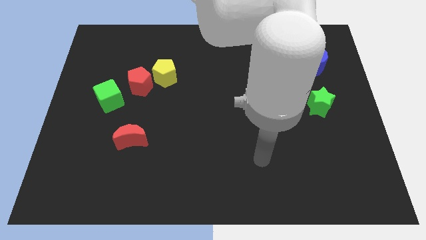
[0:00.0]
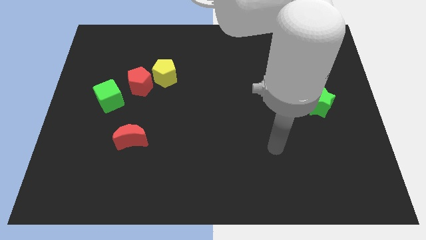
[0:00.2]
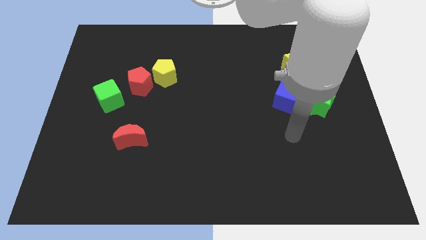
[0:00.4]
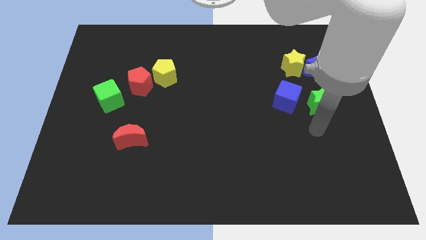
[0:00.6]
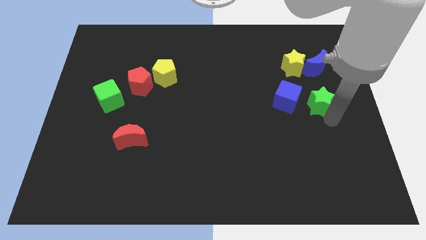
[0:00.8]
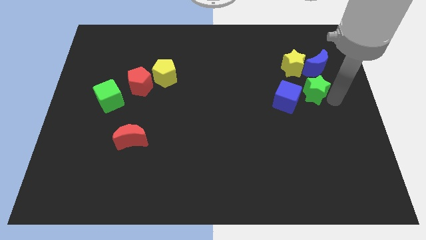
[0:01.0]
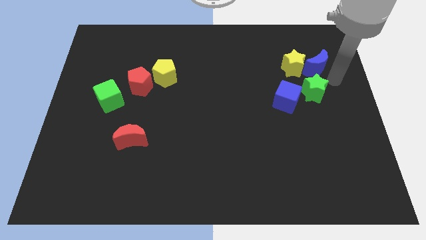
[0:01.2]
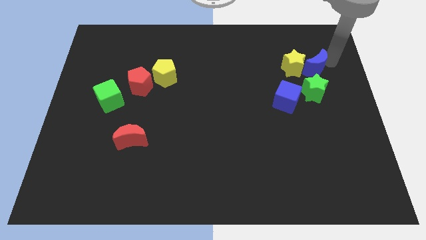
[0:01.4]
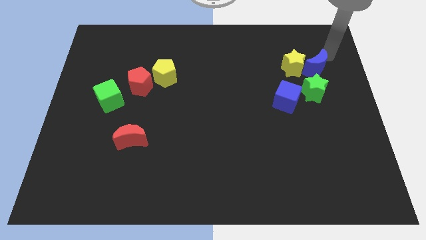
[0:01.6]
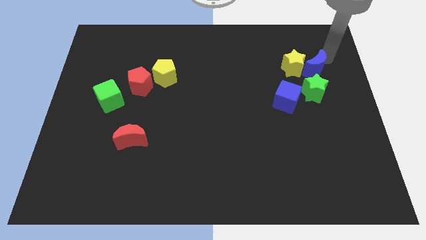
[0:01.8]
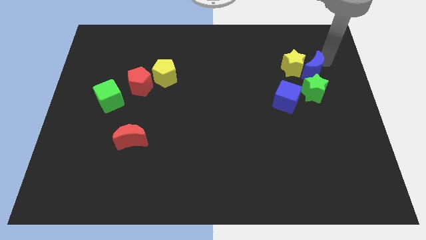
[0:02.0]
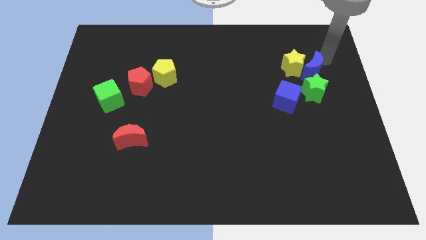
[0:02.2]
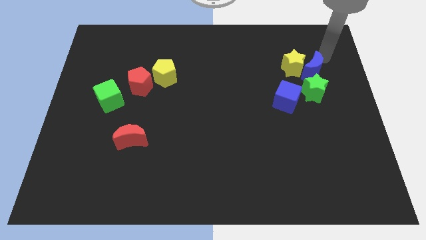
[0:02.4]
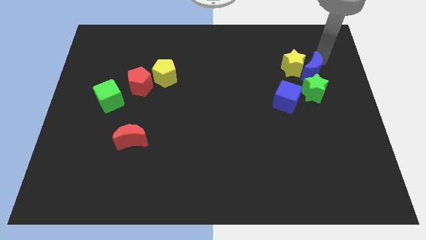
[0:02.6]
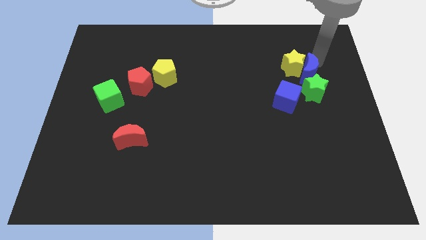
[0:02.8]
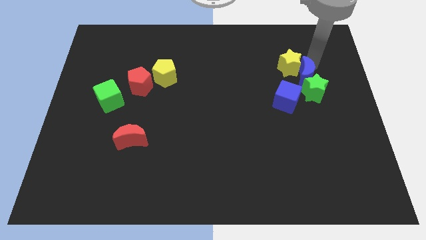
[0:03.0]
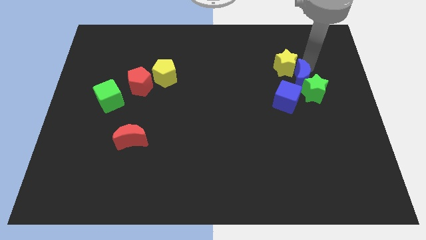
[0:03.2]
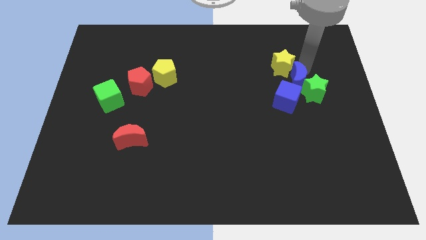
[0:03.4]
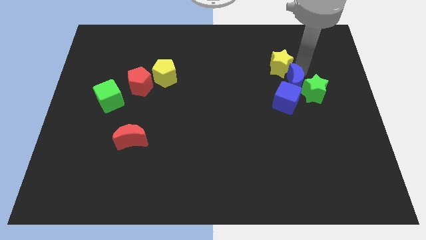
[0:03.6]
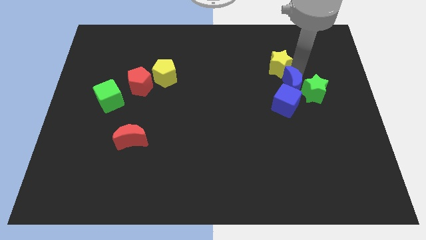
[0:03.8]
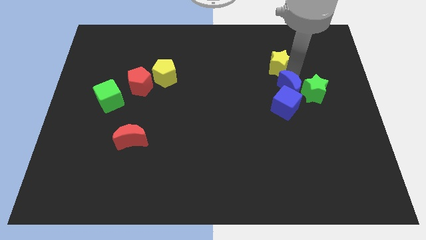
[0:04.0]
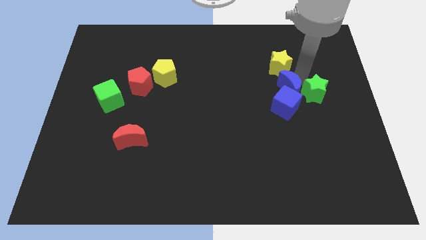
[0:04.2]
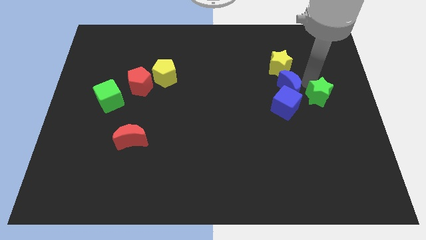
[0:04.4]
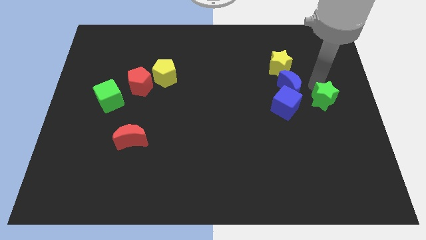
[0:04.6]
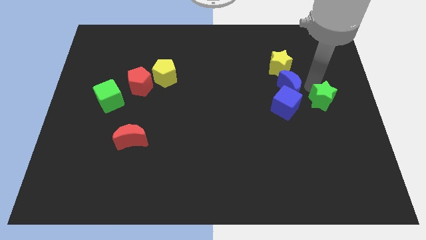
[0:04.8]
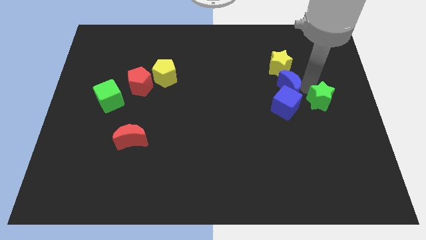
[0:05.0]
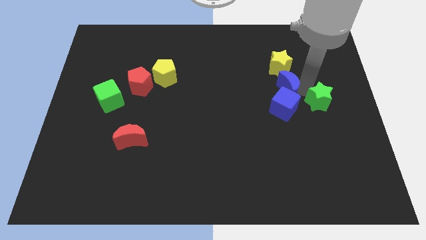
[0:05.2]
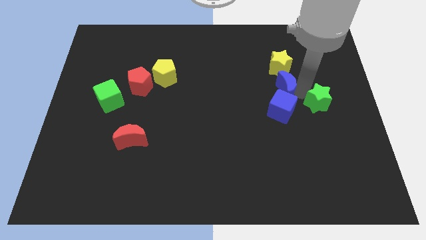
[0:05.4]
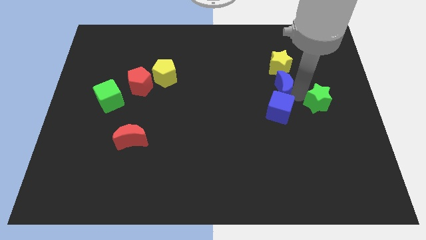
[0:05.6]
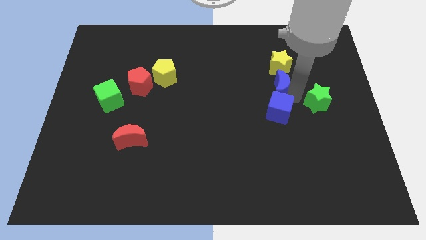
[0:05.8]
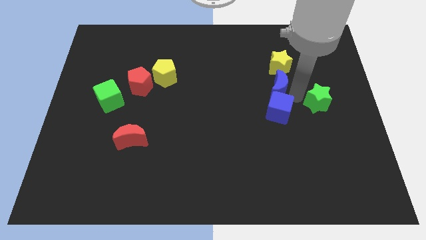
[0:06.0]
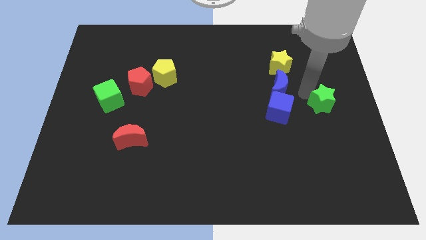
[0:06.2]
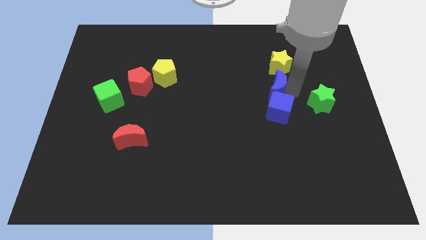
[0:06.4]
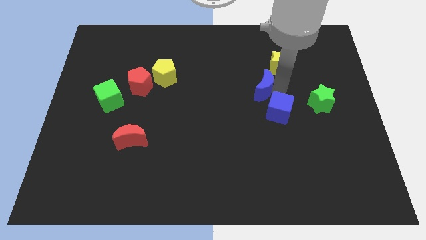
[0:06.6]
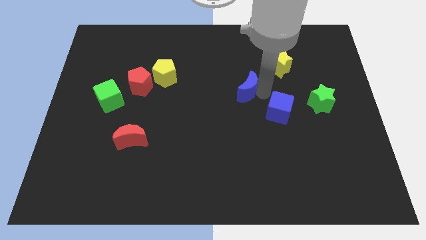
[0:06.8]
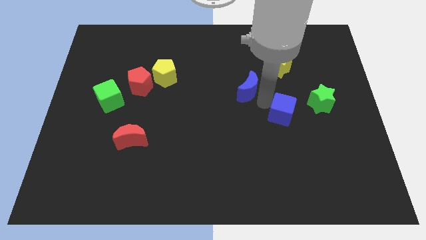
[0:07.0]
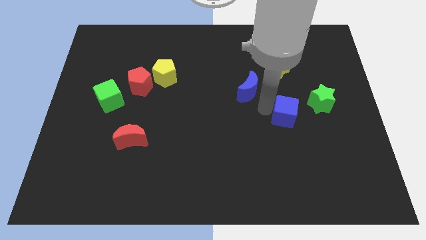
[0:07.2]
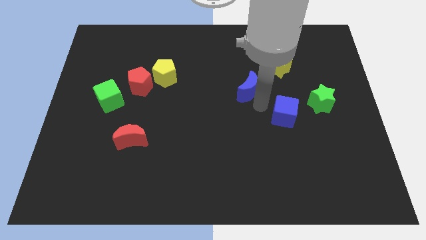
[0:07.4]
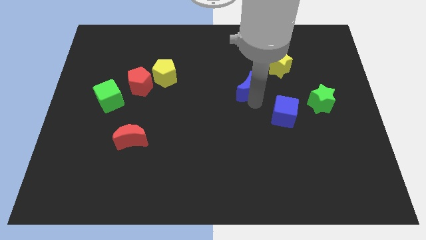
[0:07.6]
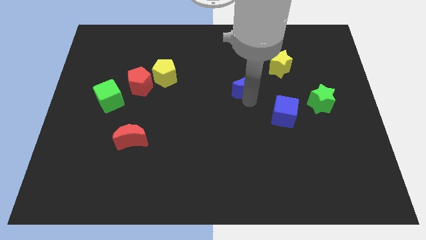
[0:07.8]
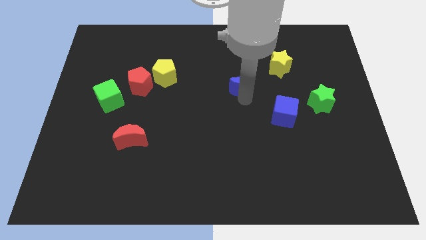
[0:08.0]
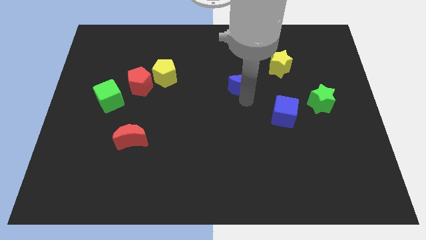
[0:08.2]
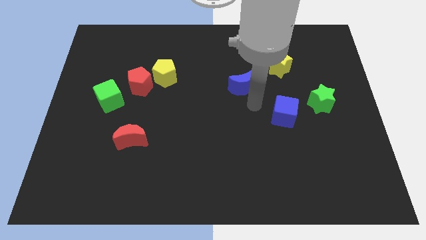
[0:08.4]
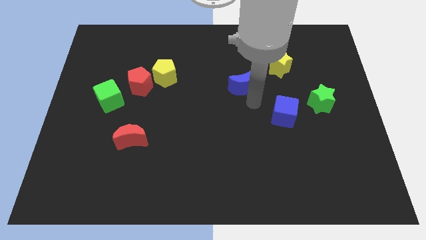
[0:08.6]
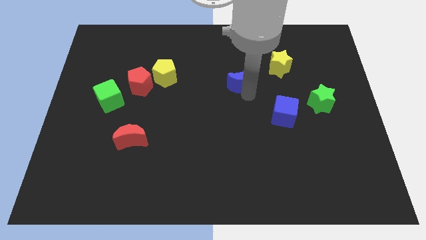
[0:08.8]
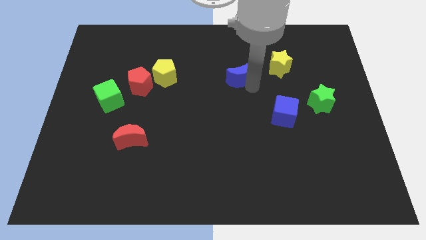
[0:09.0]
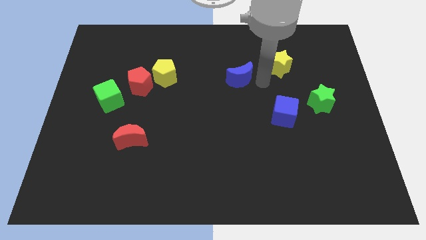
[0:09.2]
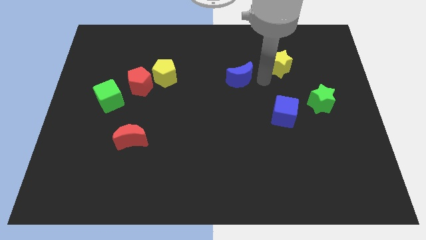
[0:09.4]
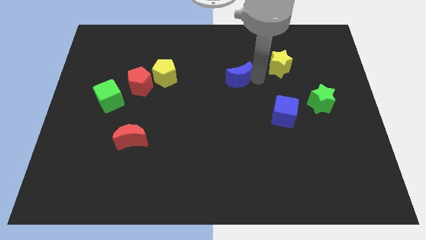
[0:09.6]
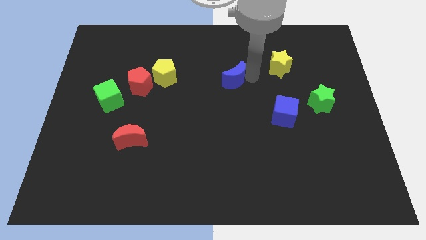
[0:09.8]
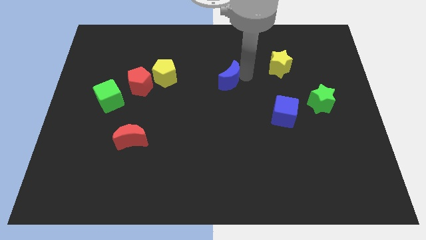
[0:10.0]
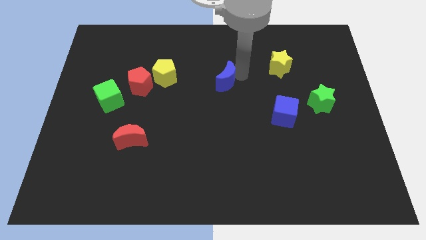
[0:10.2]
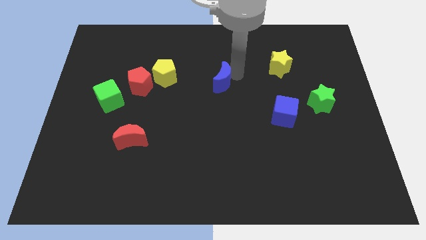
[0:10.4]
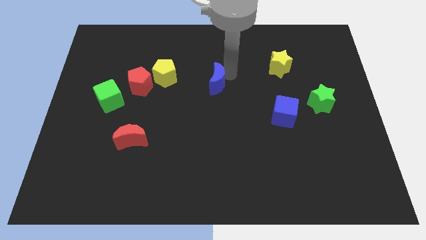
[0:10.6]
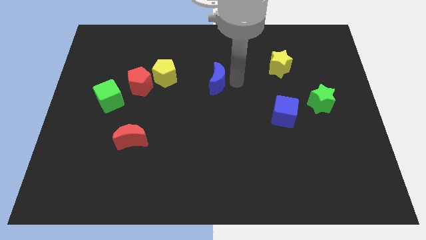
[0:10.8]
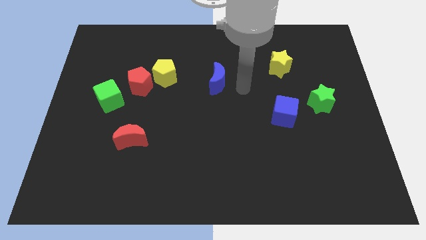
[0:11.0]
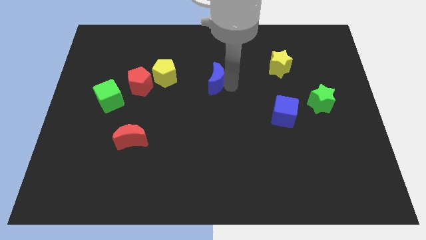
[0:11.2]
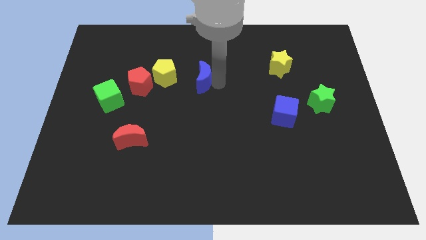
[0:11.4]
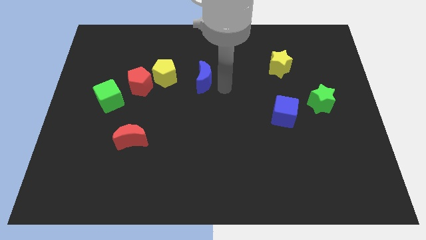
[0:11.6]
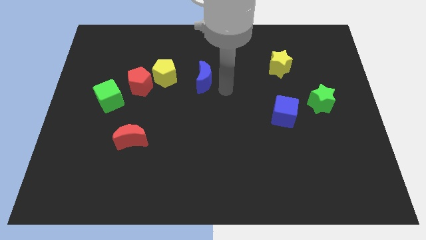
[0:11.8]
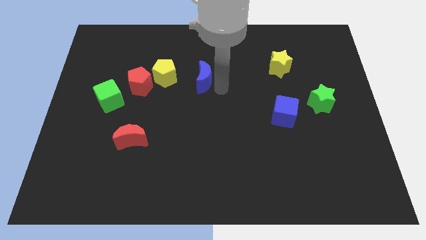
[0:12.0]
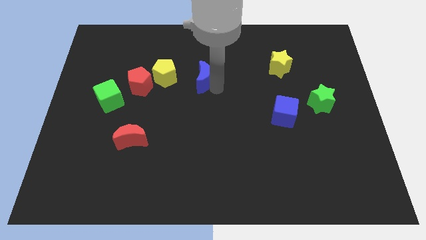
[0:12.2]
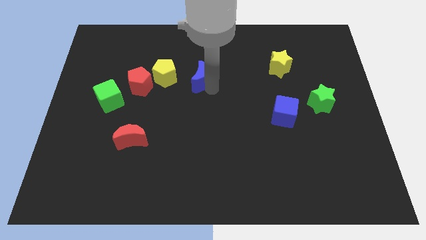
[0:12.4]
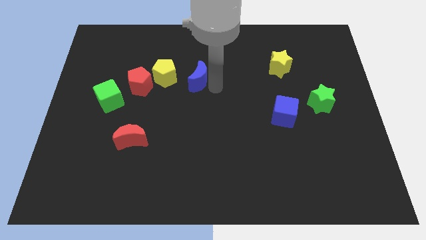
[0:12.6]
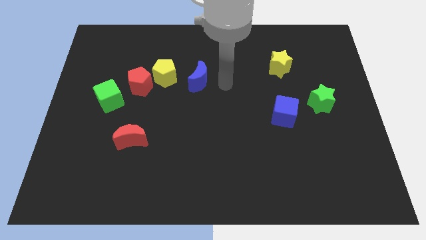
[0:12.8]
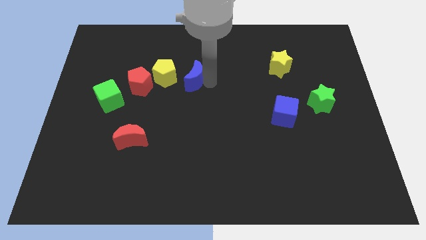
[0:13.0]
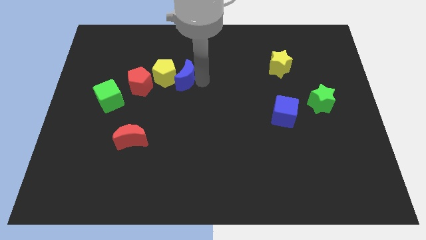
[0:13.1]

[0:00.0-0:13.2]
slide the blue moon to the yellow pentagon
